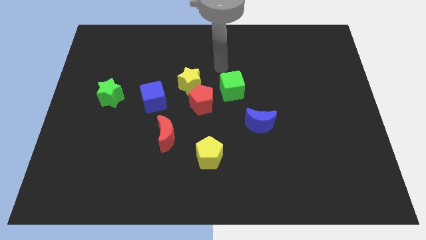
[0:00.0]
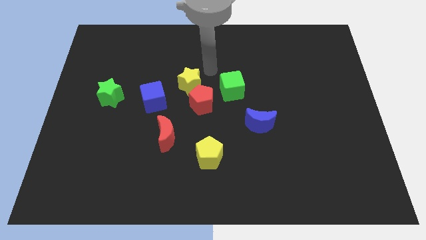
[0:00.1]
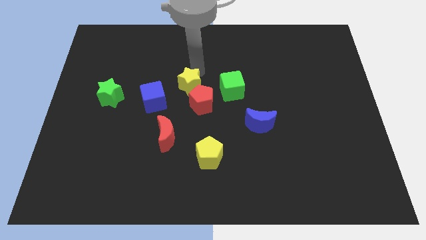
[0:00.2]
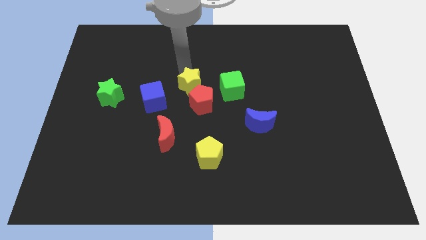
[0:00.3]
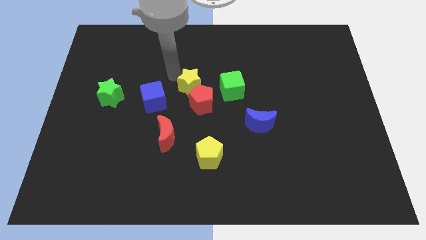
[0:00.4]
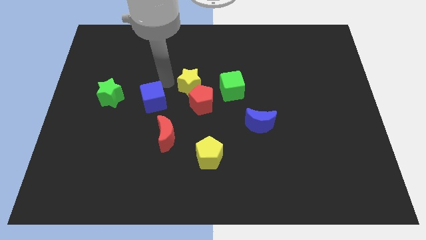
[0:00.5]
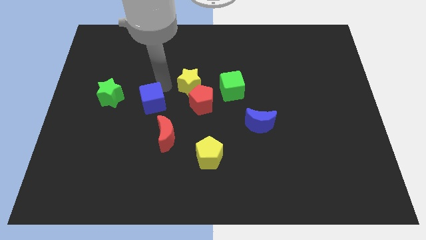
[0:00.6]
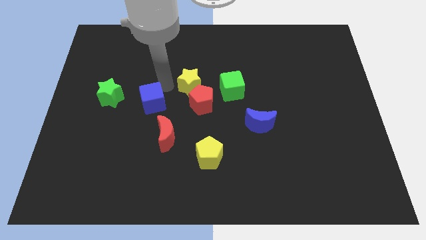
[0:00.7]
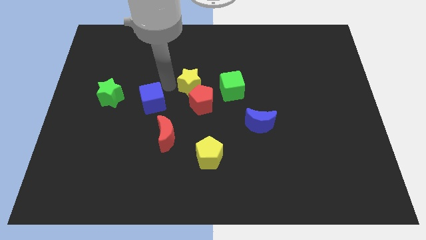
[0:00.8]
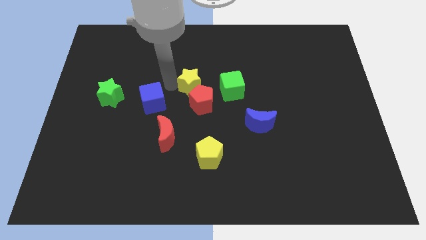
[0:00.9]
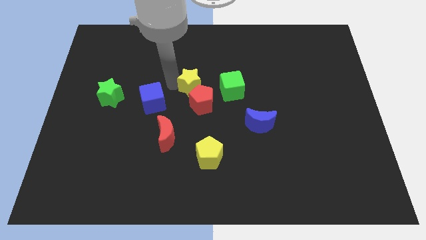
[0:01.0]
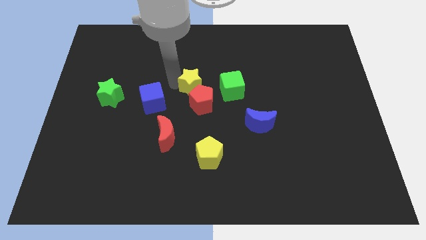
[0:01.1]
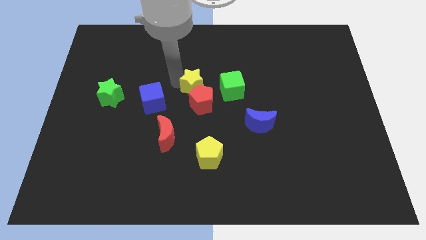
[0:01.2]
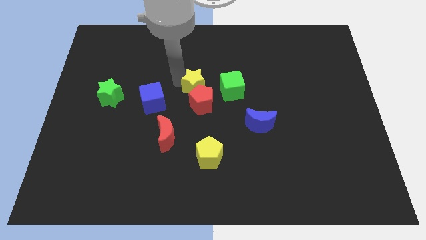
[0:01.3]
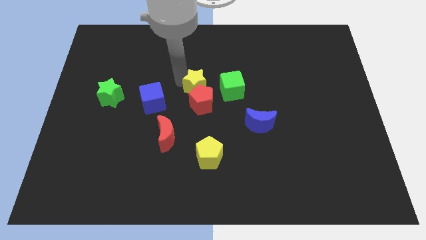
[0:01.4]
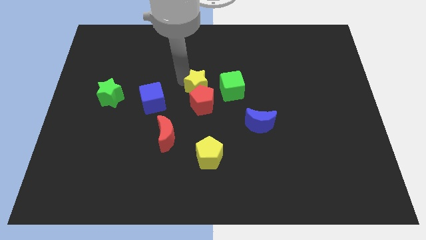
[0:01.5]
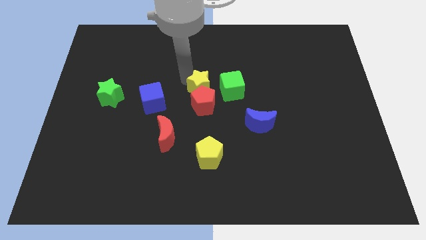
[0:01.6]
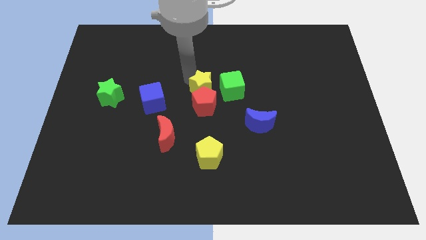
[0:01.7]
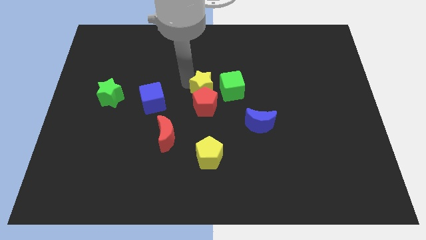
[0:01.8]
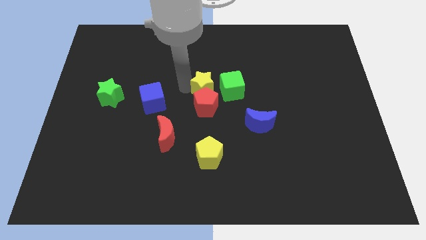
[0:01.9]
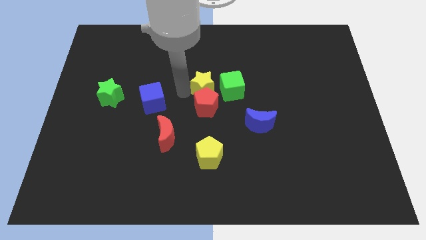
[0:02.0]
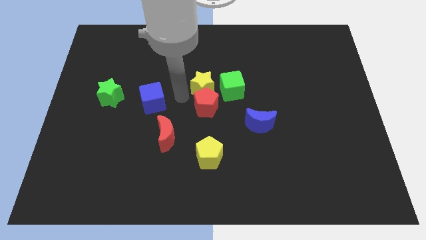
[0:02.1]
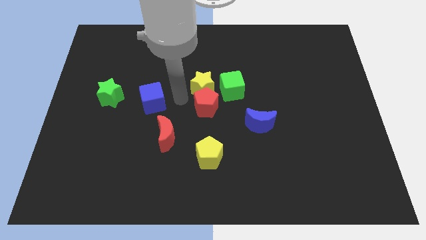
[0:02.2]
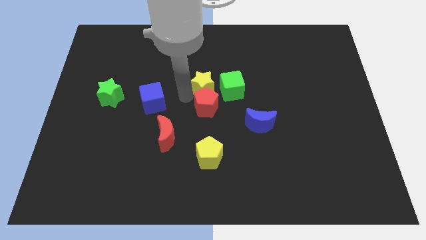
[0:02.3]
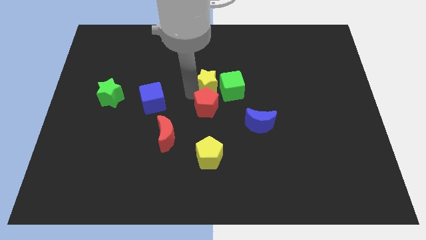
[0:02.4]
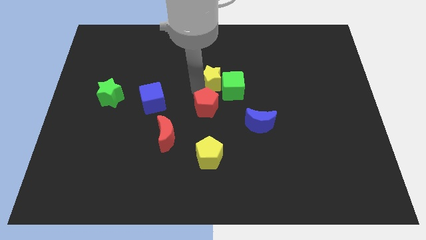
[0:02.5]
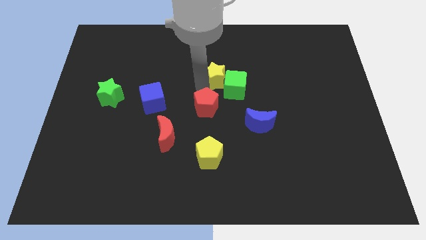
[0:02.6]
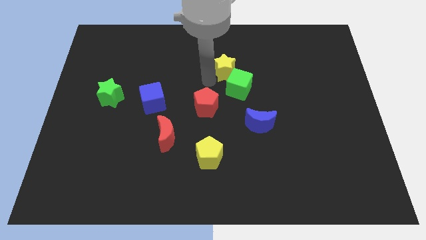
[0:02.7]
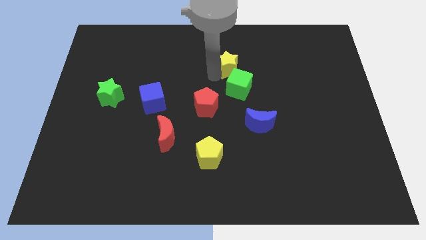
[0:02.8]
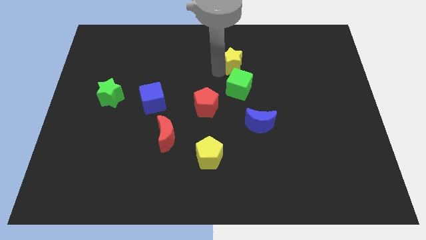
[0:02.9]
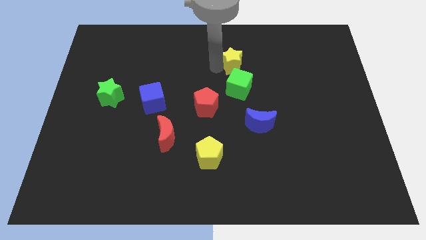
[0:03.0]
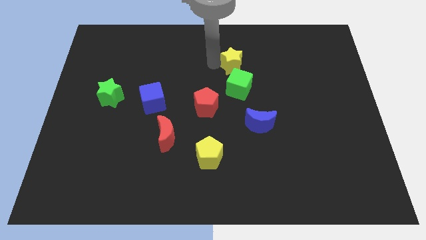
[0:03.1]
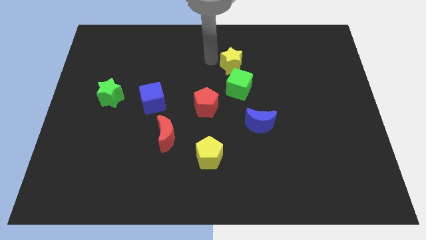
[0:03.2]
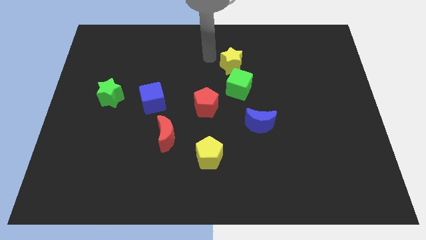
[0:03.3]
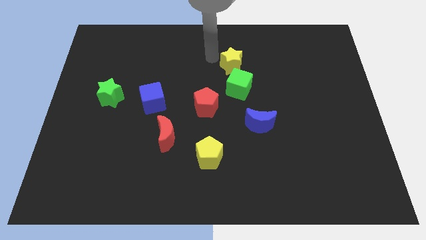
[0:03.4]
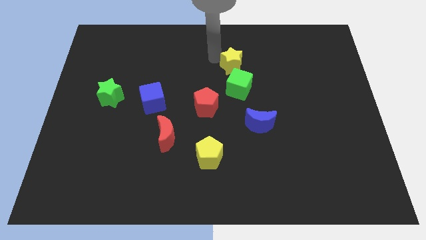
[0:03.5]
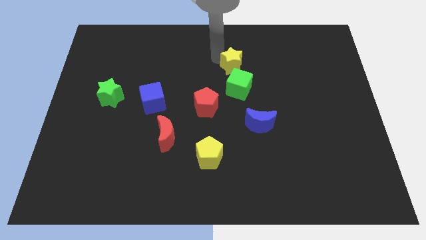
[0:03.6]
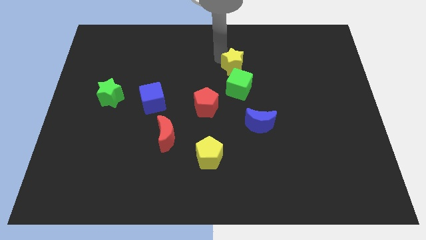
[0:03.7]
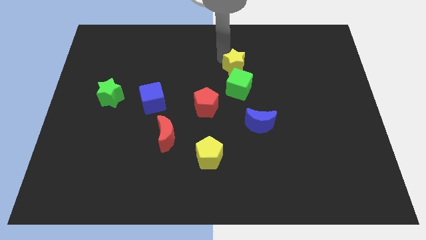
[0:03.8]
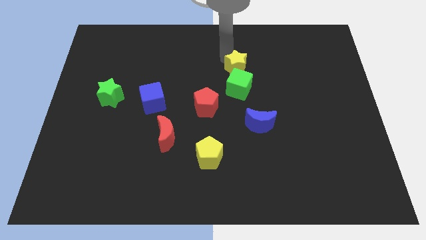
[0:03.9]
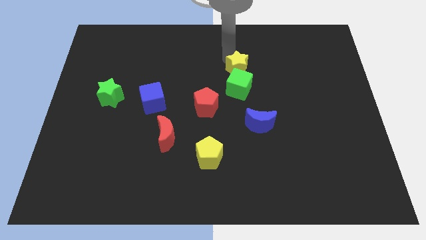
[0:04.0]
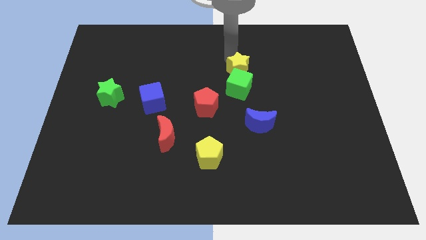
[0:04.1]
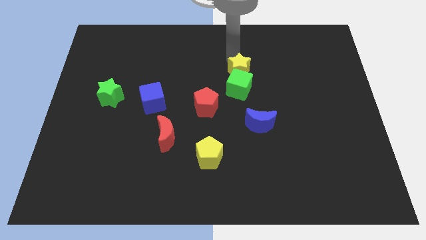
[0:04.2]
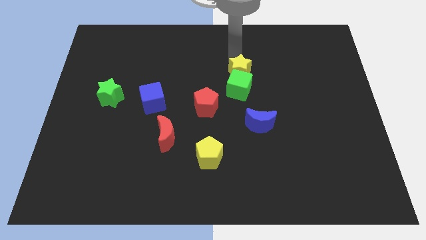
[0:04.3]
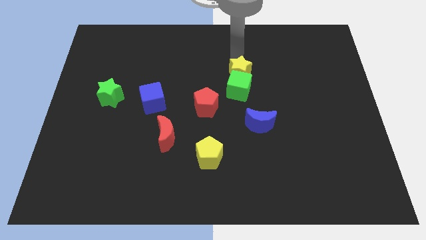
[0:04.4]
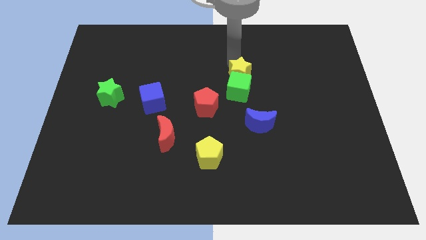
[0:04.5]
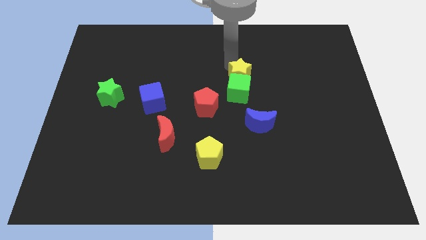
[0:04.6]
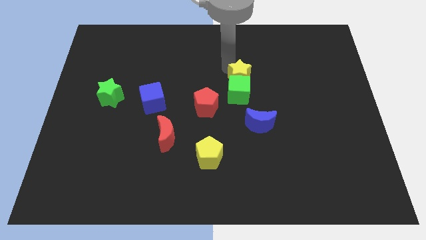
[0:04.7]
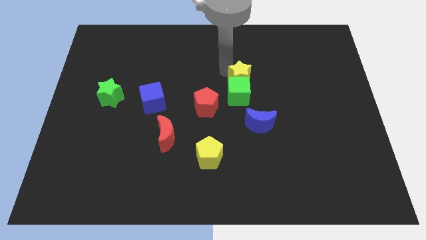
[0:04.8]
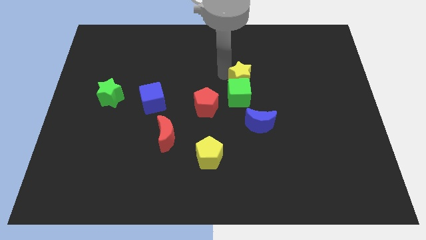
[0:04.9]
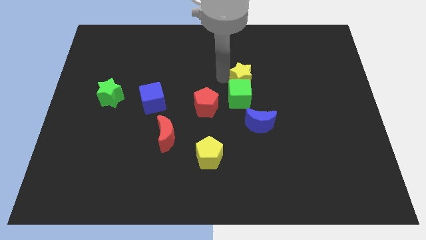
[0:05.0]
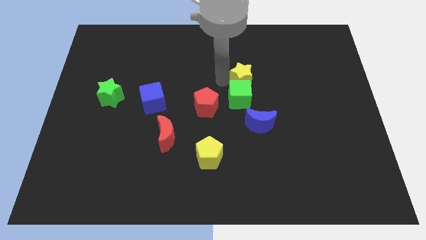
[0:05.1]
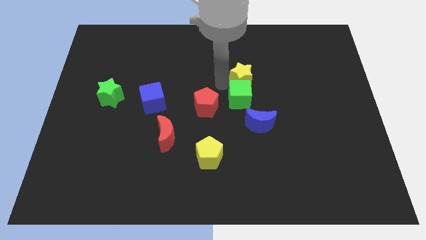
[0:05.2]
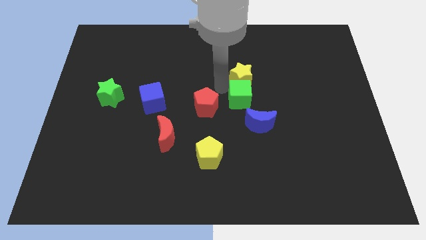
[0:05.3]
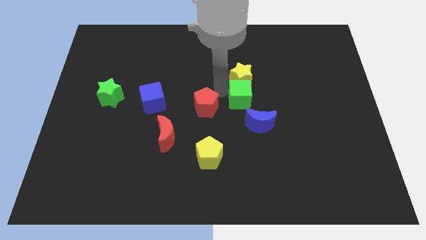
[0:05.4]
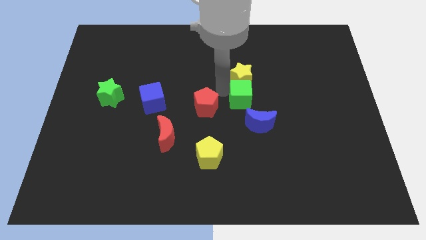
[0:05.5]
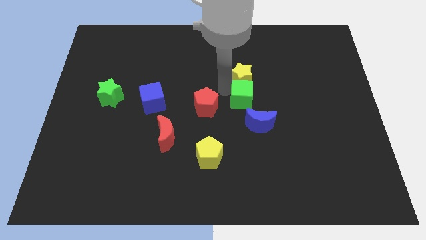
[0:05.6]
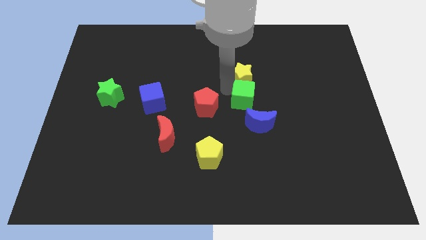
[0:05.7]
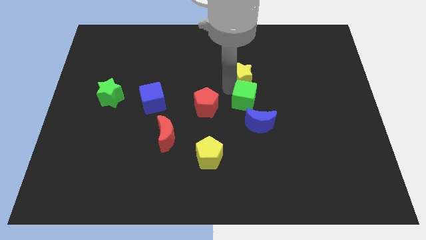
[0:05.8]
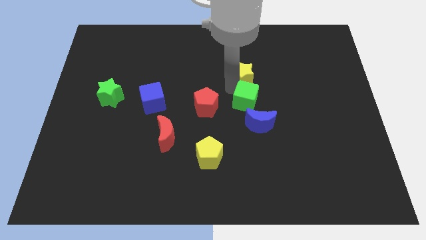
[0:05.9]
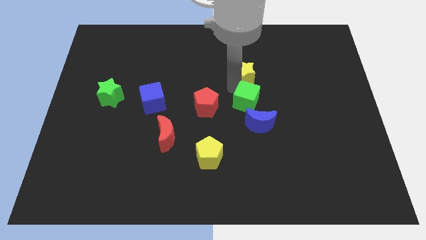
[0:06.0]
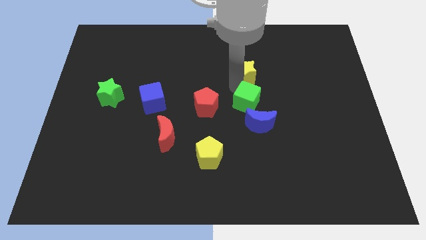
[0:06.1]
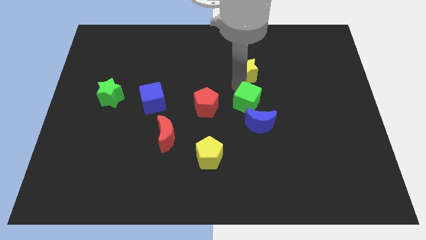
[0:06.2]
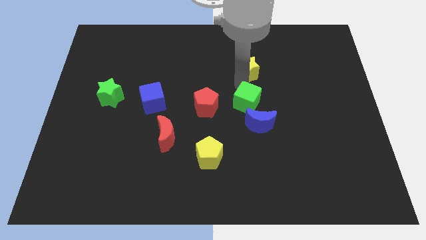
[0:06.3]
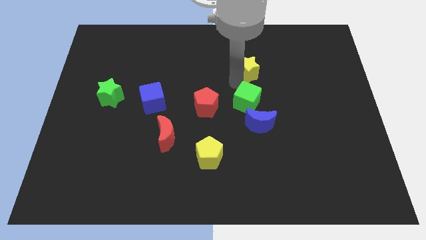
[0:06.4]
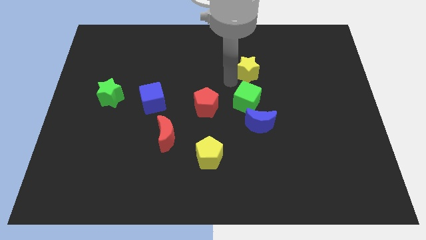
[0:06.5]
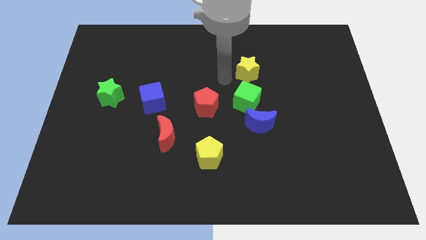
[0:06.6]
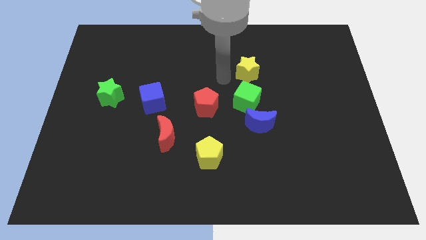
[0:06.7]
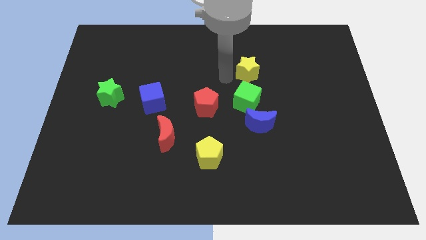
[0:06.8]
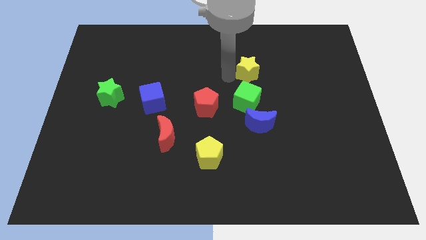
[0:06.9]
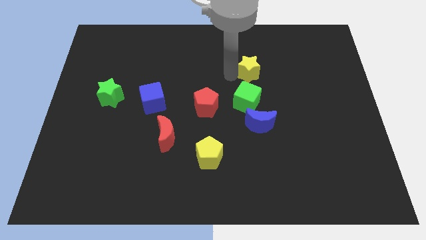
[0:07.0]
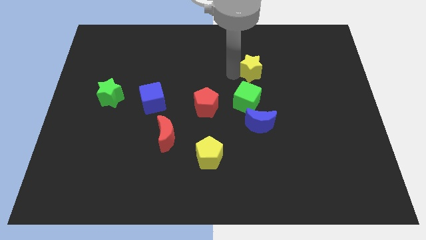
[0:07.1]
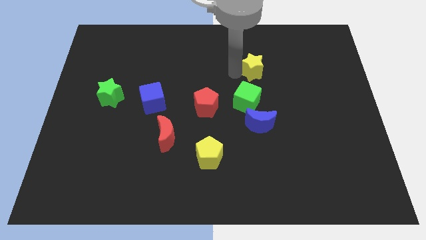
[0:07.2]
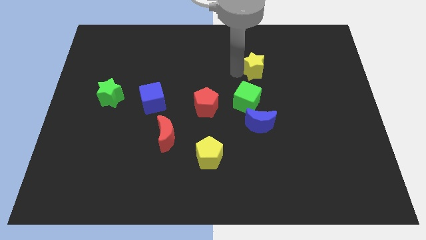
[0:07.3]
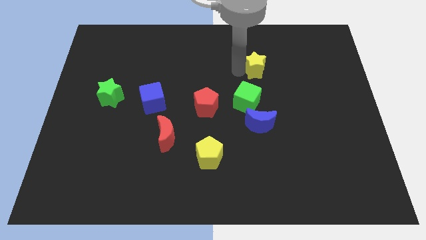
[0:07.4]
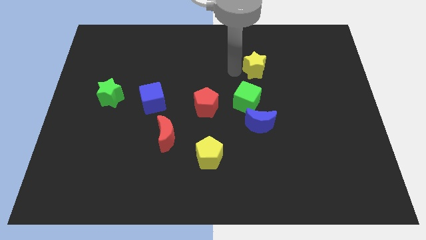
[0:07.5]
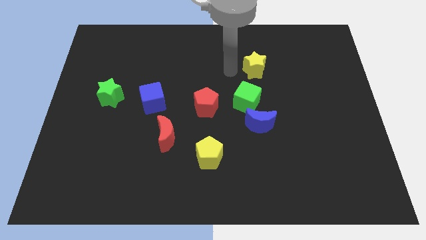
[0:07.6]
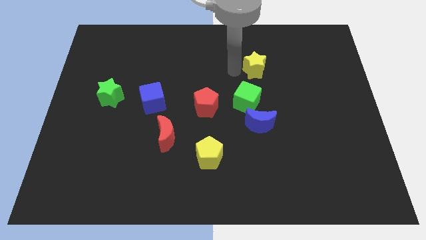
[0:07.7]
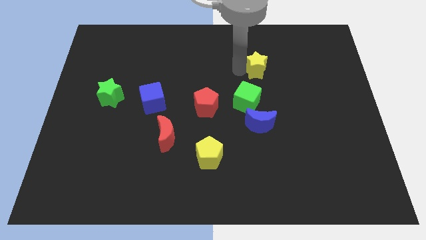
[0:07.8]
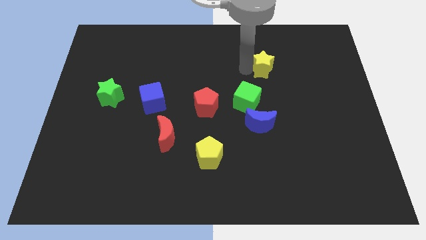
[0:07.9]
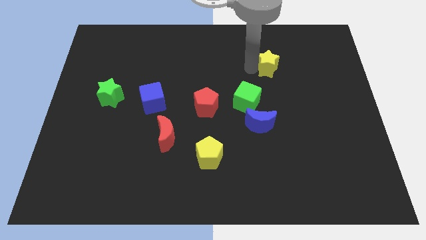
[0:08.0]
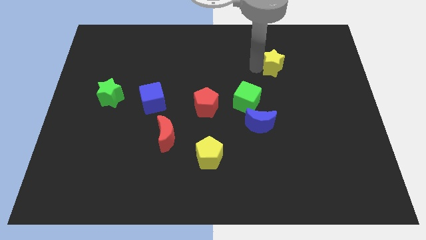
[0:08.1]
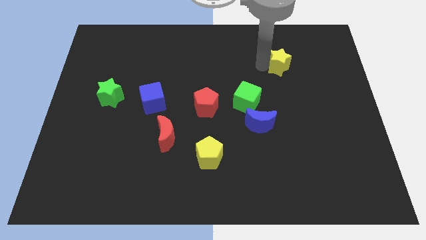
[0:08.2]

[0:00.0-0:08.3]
move the yellow star right
